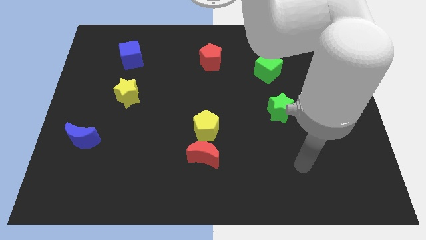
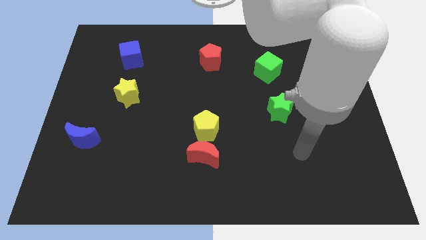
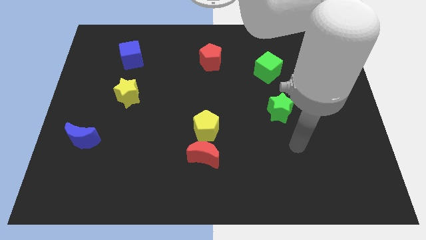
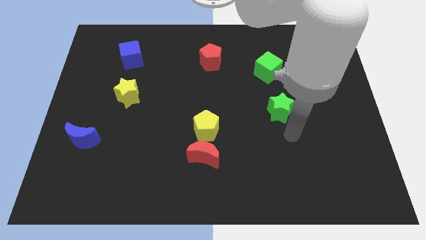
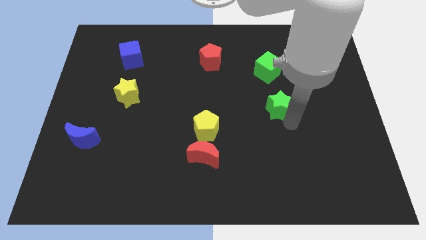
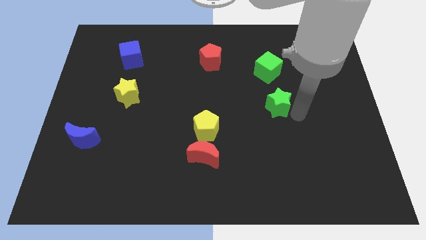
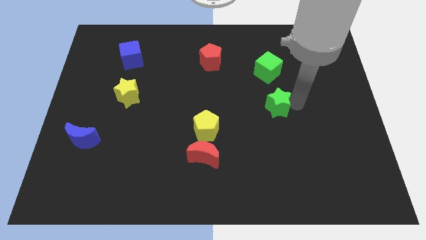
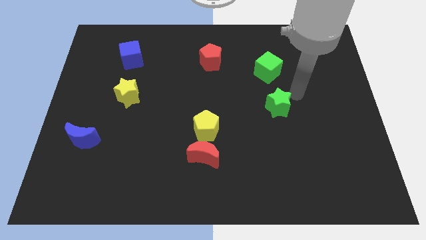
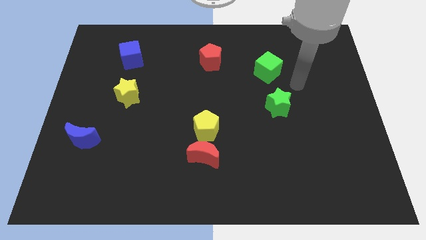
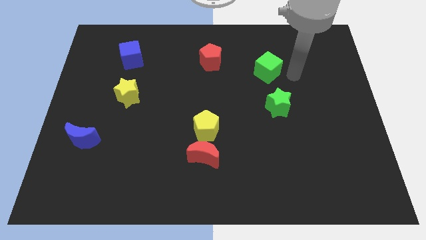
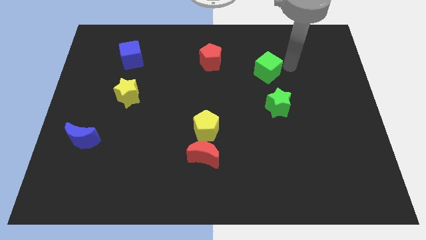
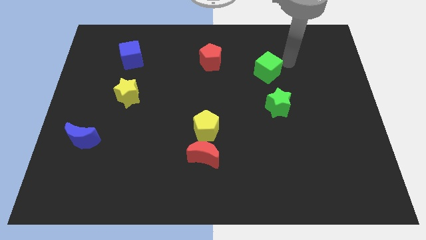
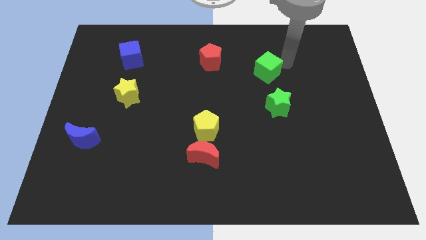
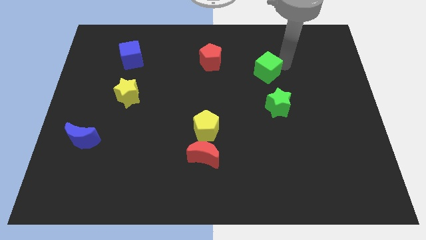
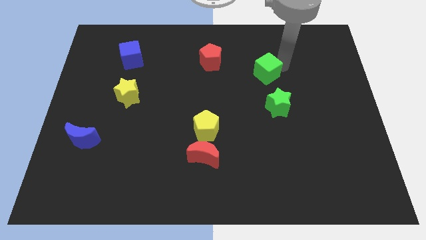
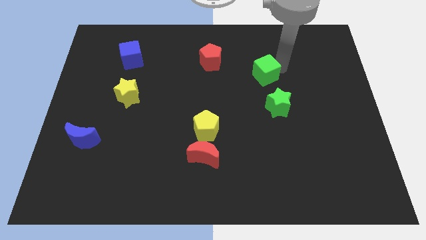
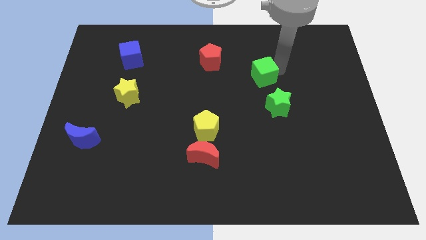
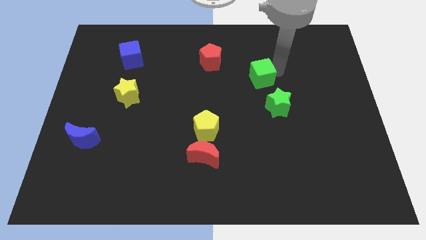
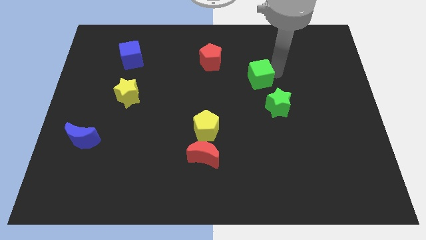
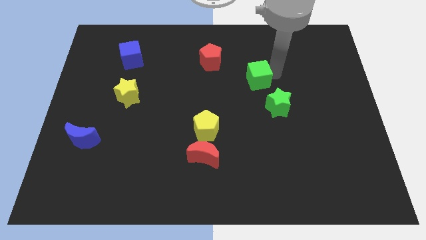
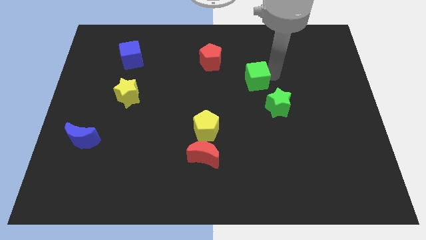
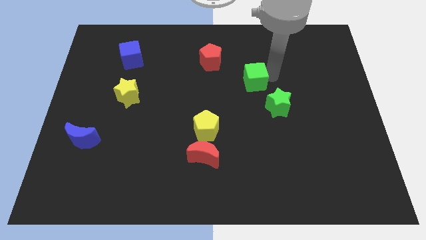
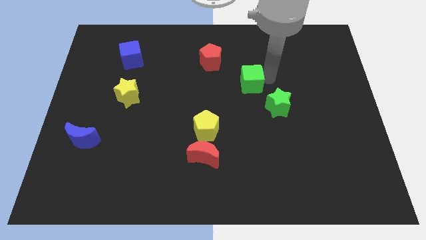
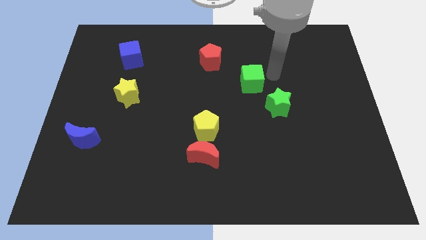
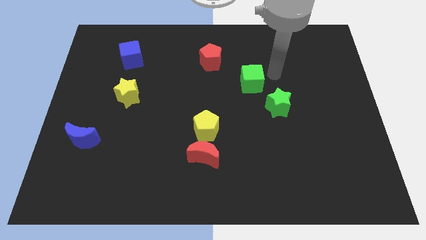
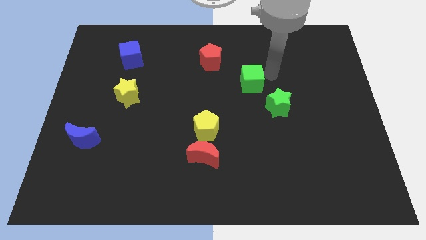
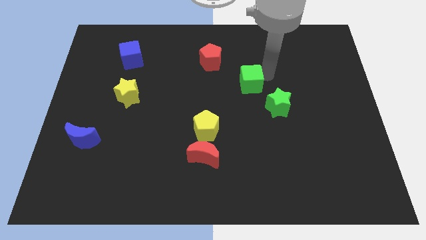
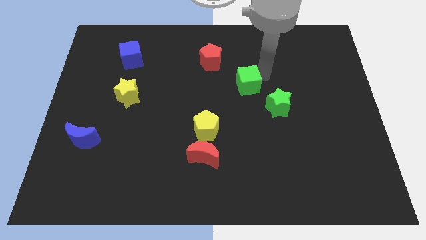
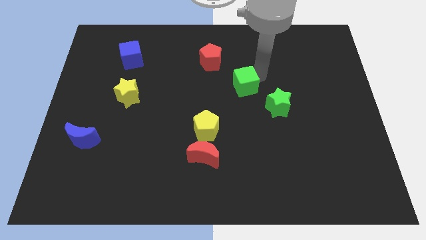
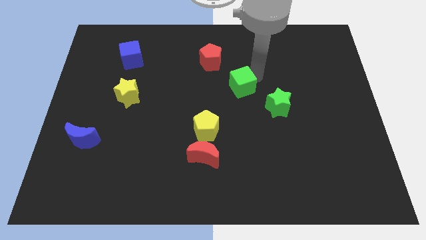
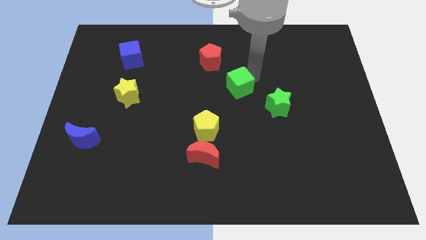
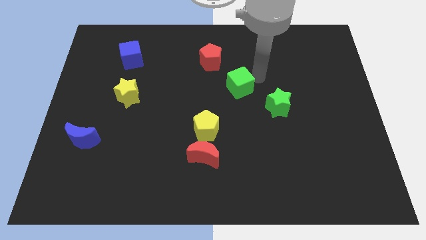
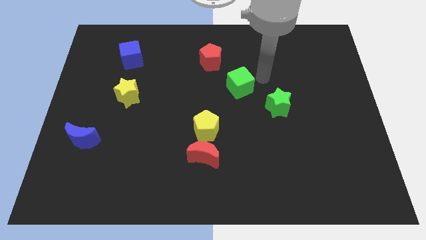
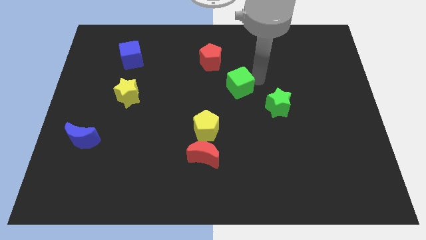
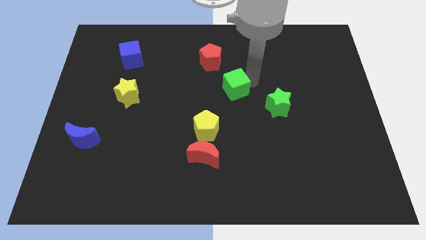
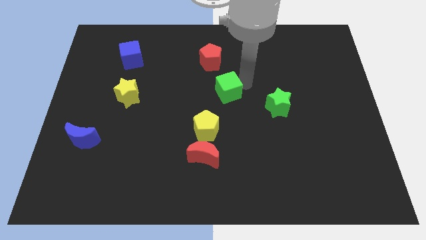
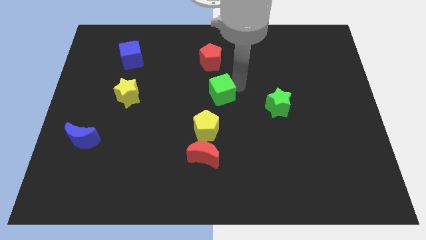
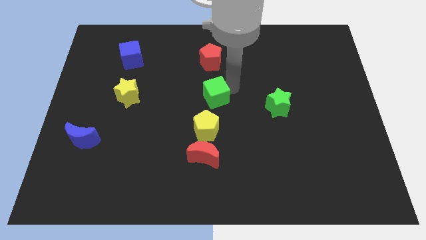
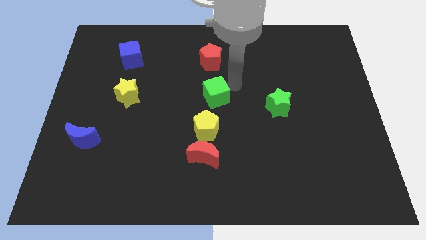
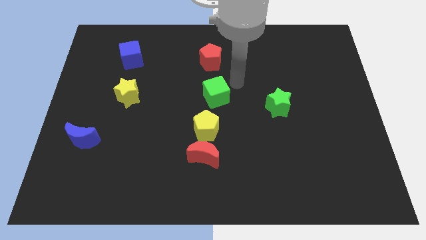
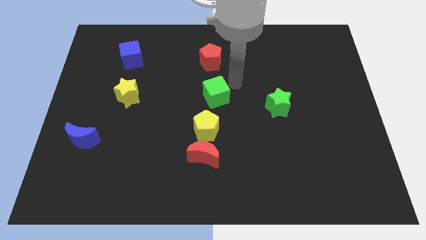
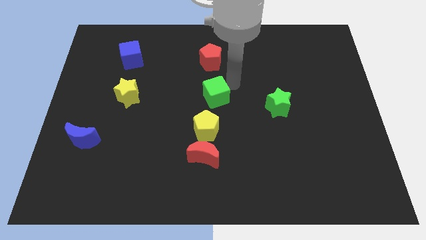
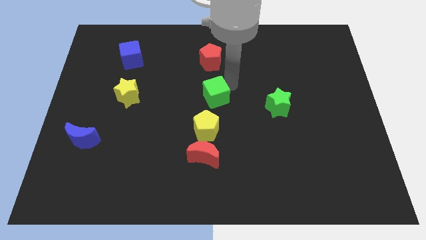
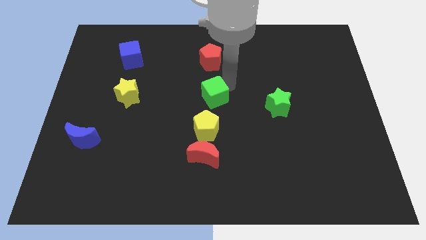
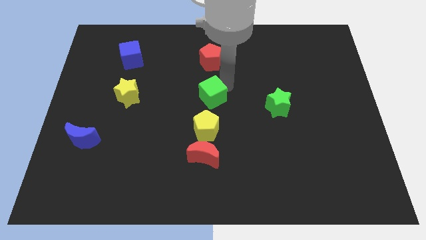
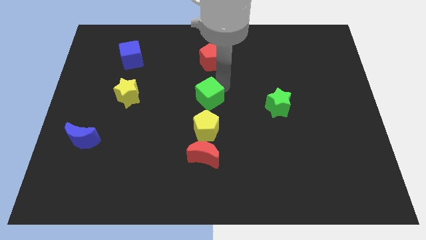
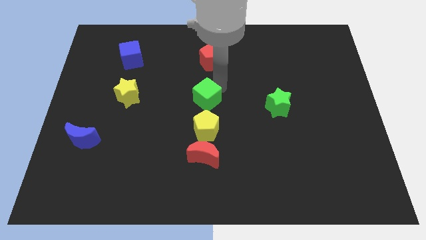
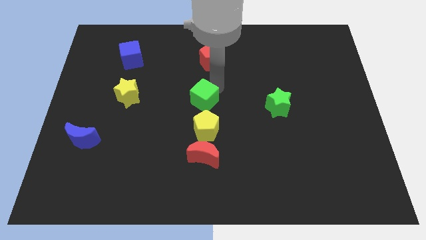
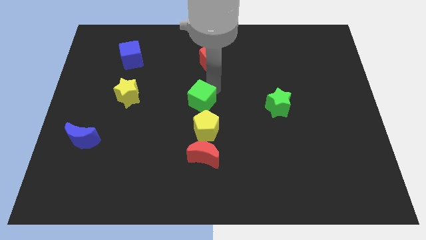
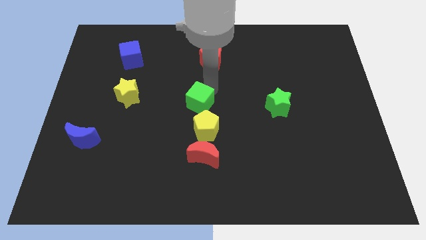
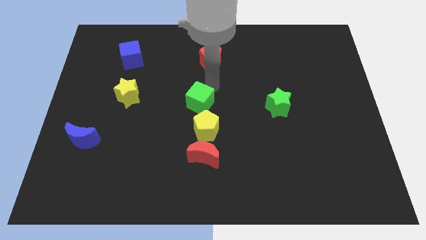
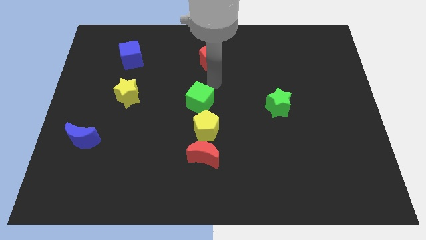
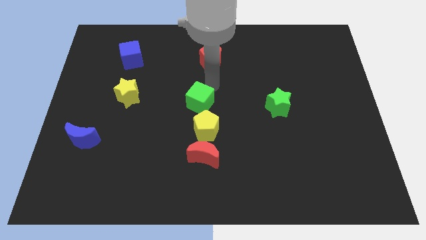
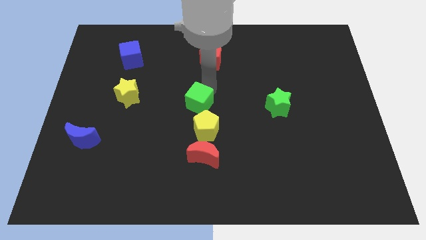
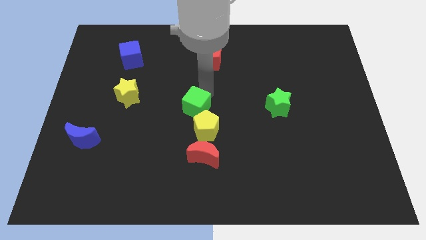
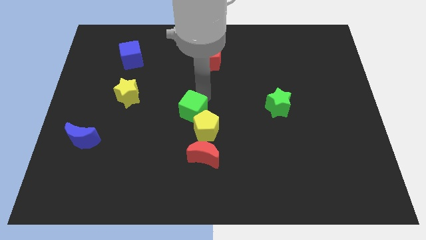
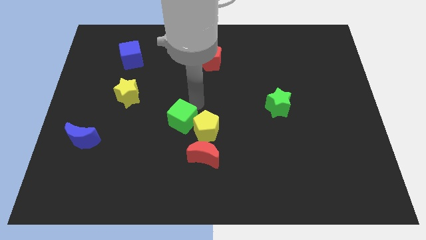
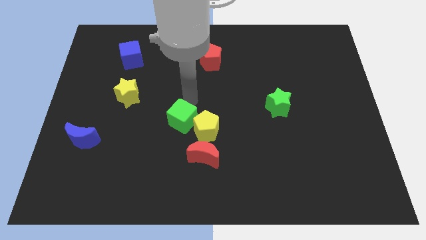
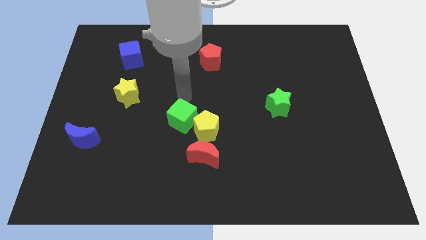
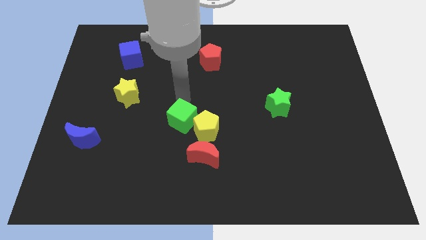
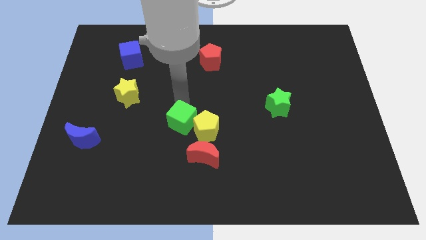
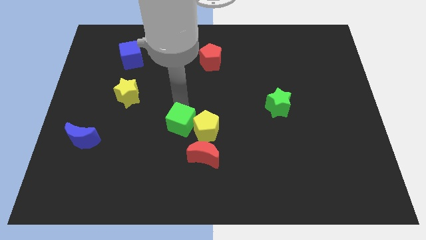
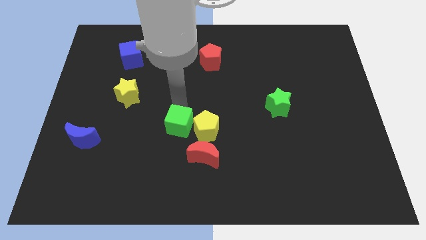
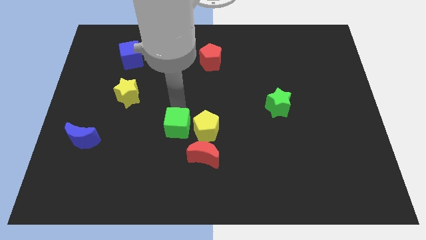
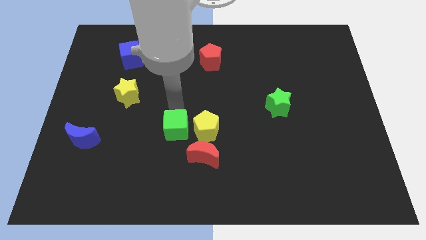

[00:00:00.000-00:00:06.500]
move the green cube to the bottom left side of the yellow pentagon

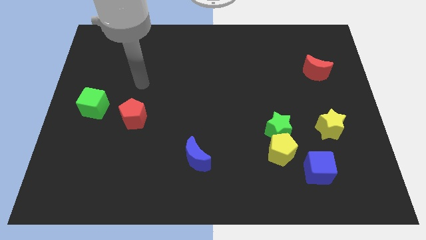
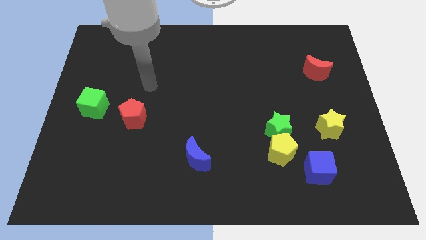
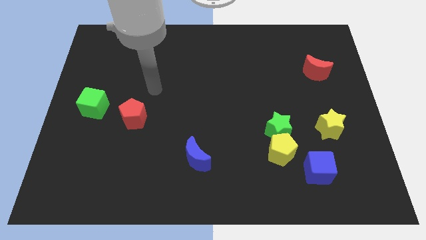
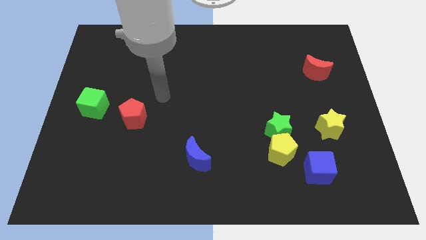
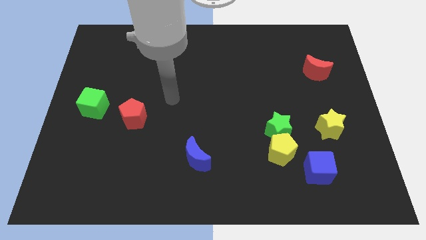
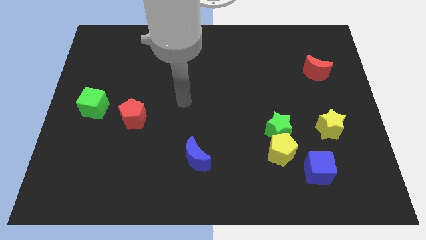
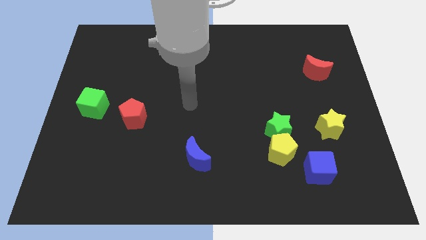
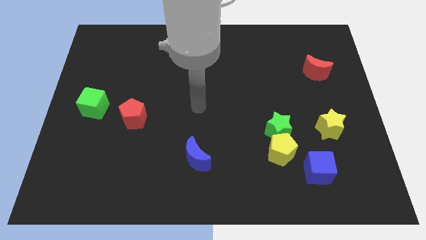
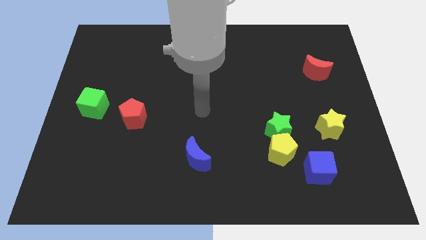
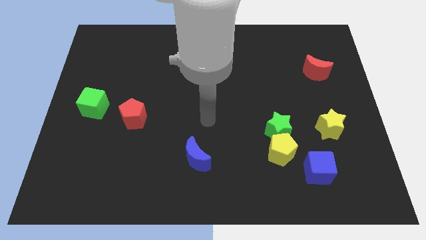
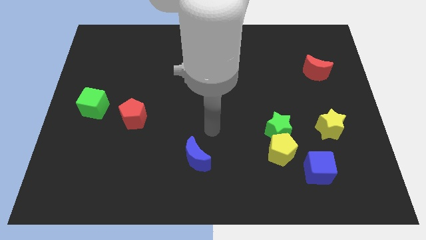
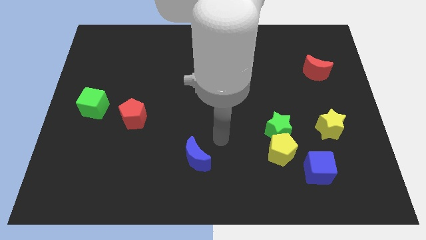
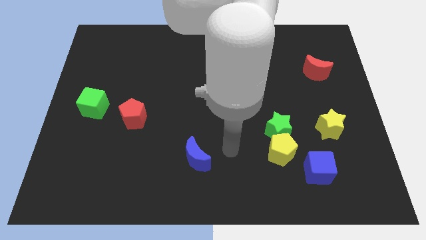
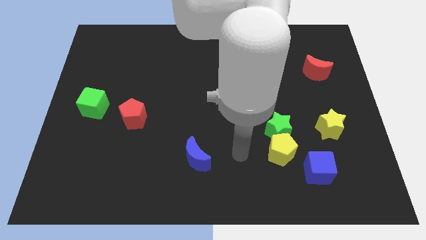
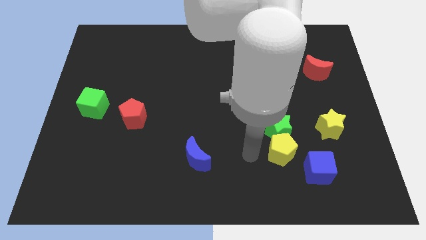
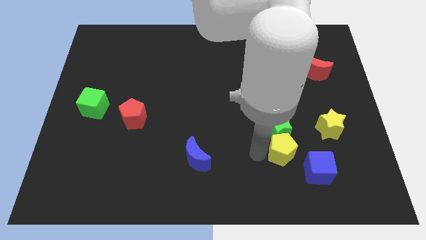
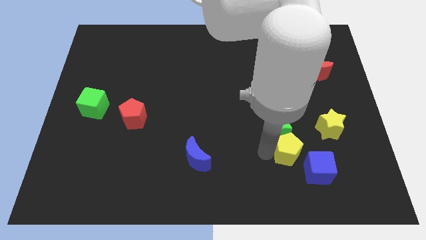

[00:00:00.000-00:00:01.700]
push the yellow pentagon to the bottom left of the yellow star
